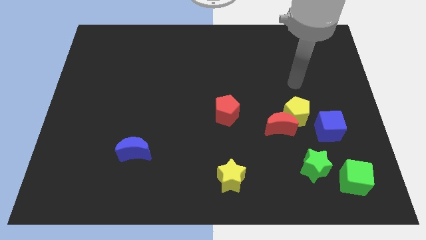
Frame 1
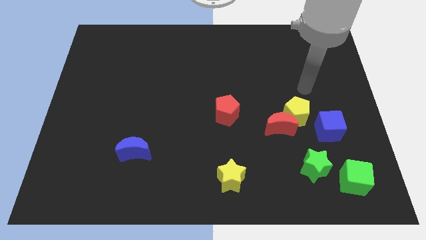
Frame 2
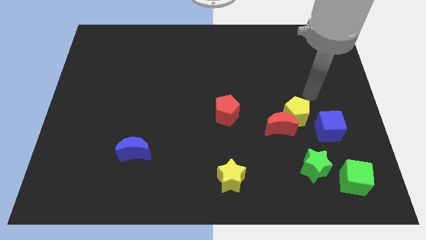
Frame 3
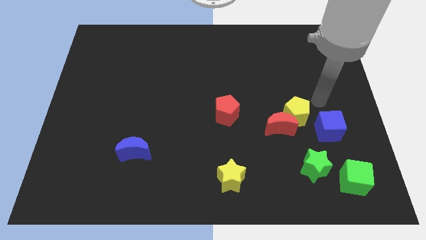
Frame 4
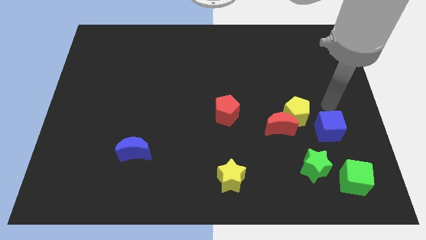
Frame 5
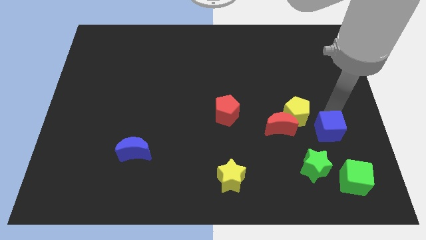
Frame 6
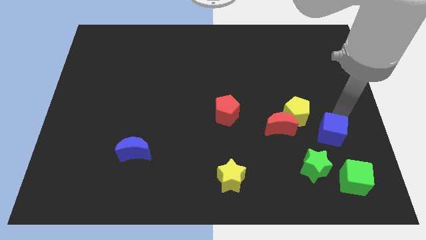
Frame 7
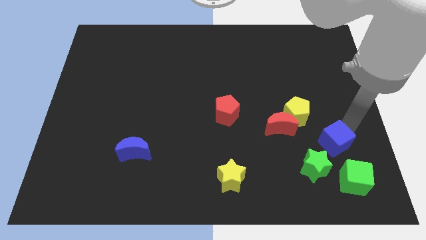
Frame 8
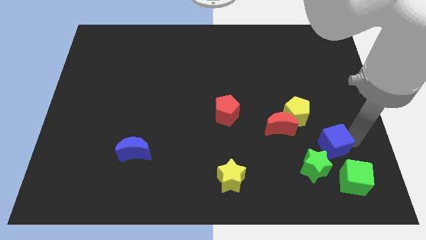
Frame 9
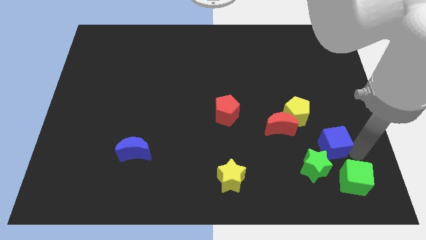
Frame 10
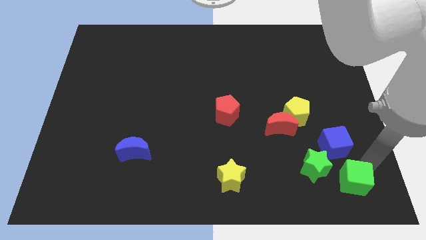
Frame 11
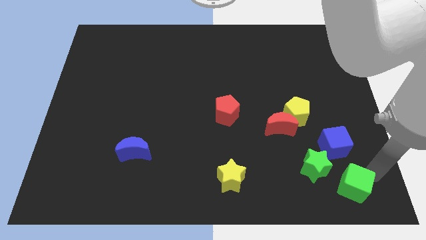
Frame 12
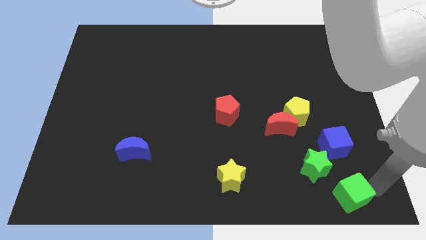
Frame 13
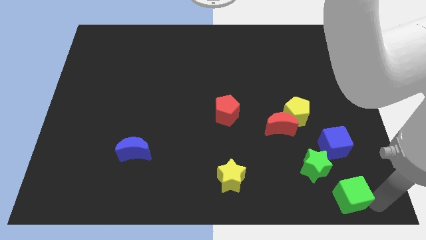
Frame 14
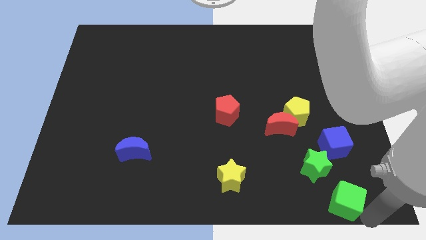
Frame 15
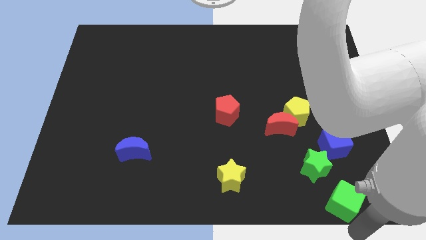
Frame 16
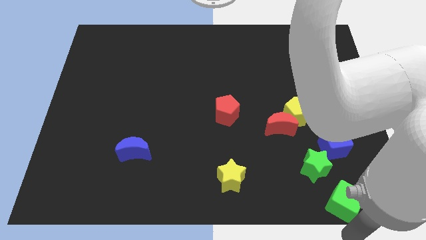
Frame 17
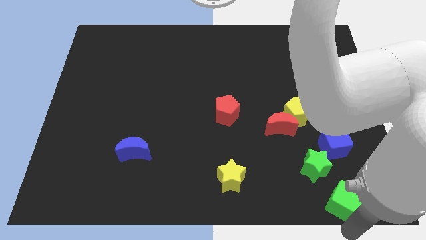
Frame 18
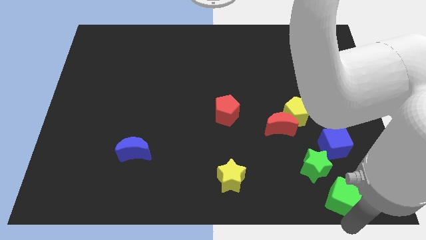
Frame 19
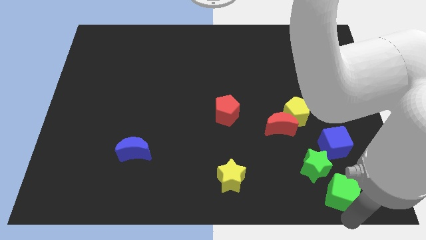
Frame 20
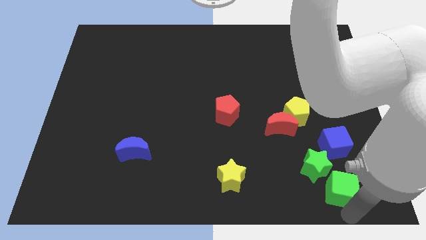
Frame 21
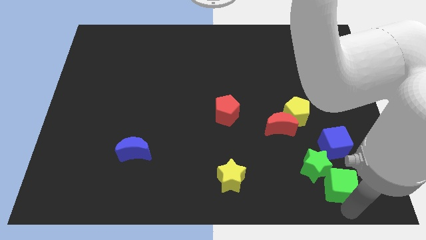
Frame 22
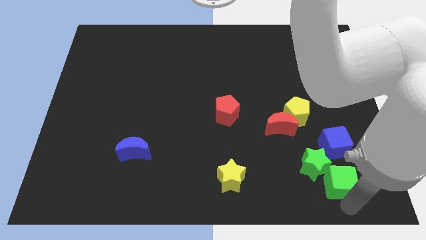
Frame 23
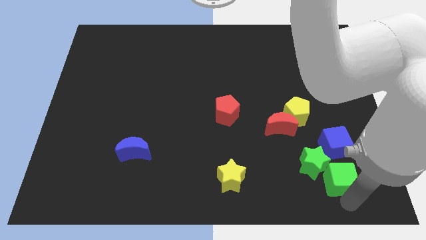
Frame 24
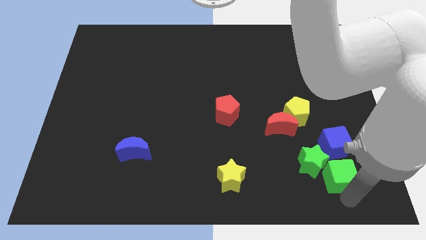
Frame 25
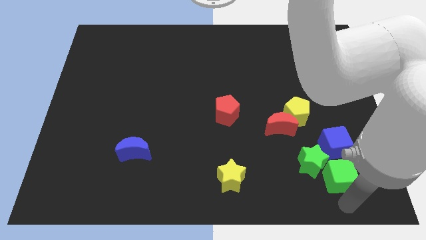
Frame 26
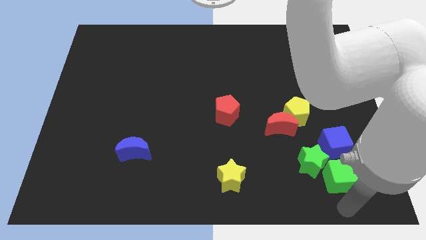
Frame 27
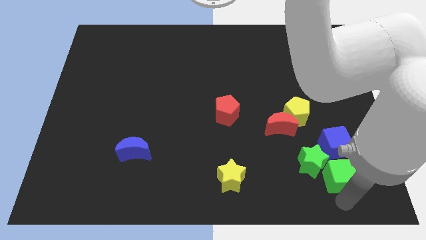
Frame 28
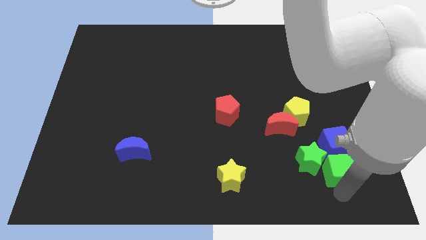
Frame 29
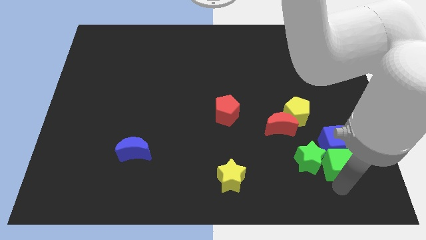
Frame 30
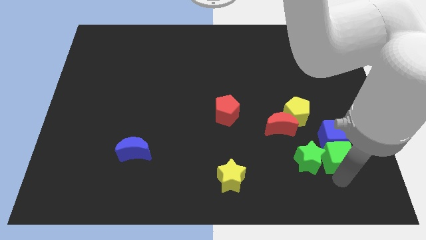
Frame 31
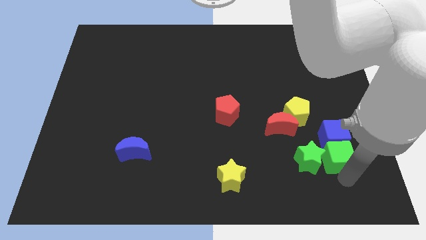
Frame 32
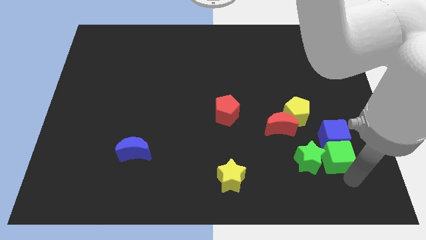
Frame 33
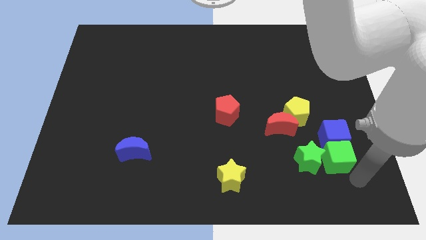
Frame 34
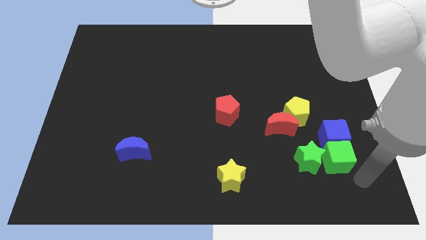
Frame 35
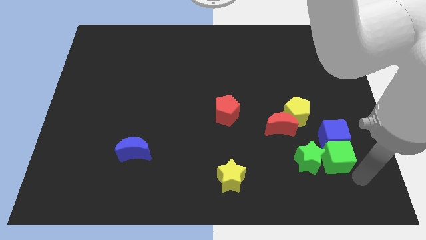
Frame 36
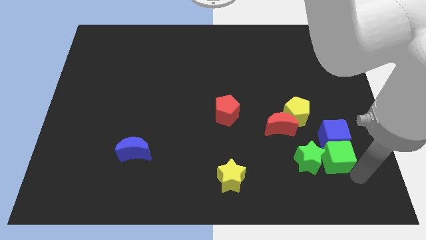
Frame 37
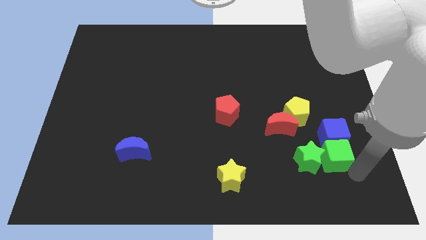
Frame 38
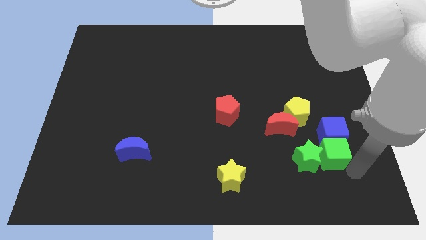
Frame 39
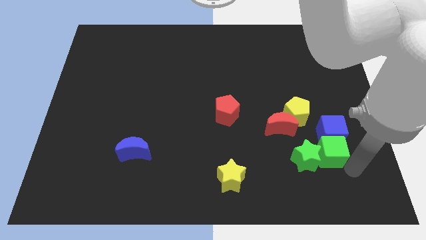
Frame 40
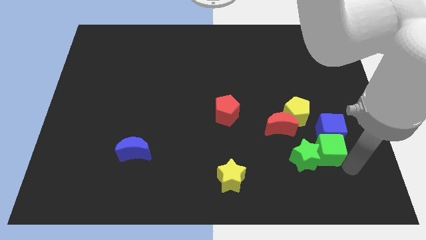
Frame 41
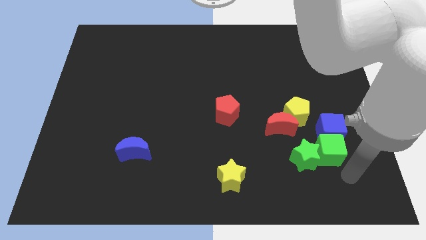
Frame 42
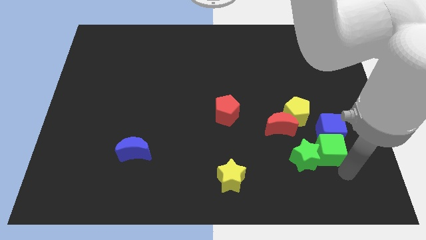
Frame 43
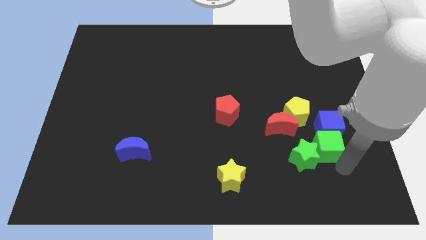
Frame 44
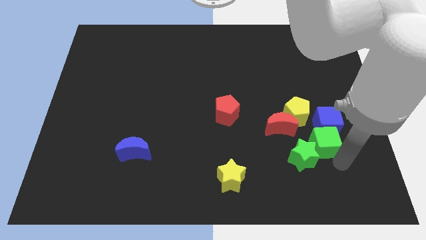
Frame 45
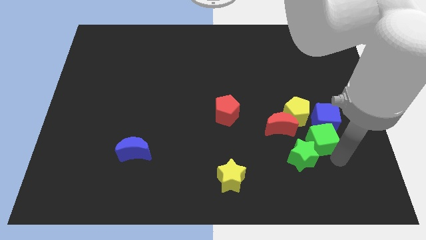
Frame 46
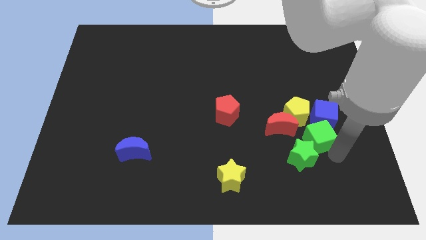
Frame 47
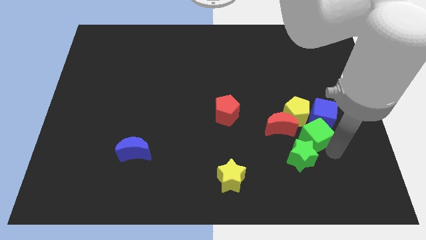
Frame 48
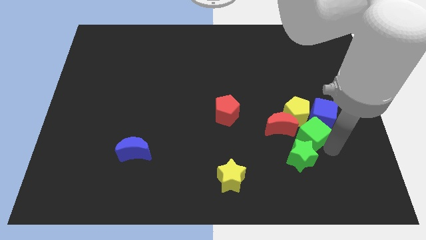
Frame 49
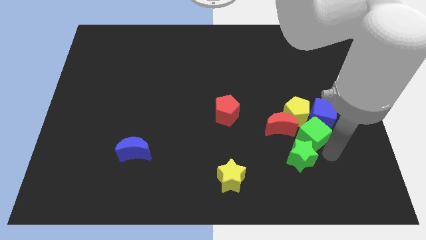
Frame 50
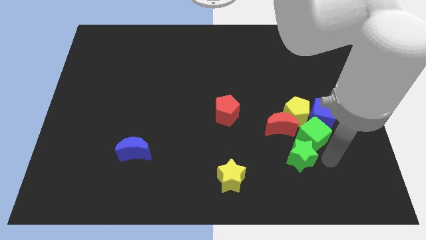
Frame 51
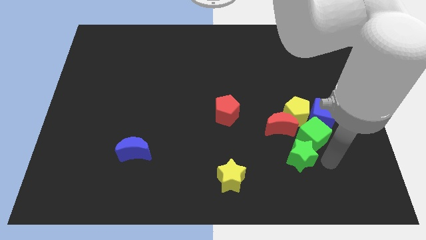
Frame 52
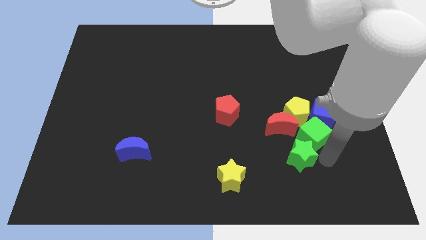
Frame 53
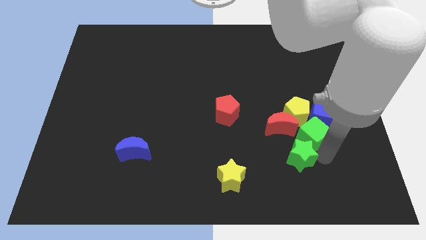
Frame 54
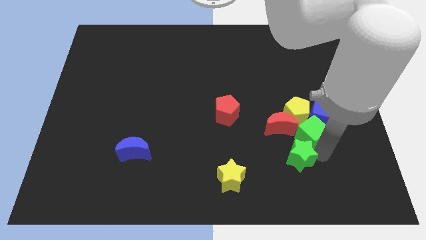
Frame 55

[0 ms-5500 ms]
push the green cube close to the yellow pentagon

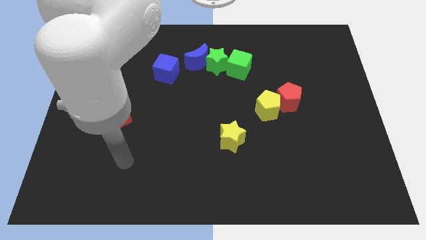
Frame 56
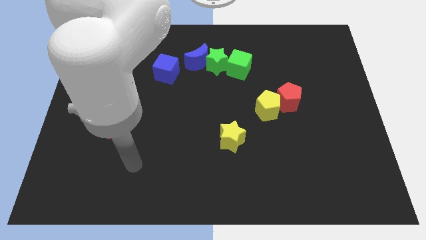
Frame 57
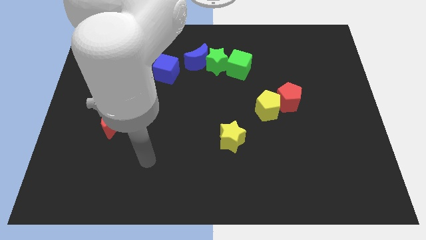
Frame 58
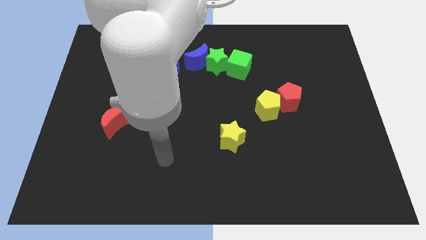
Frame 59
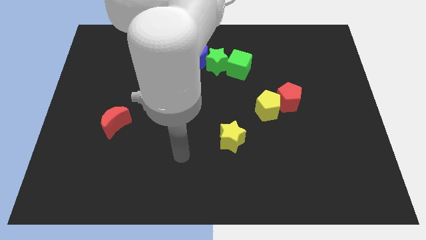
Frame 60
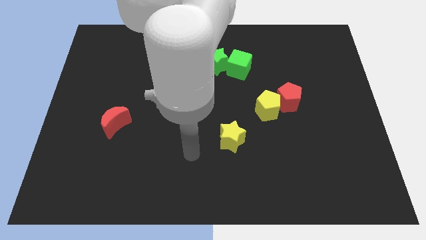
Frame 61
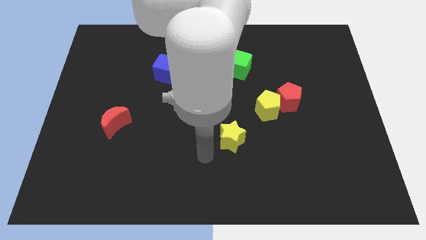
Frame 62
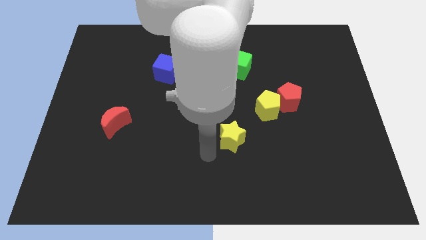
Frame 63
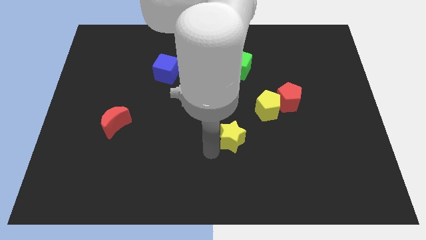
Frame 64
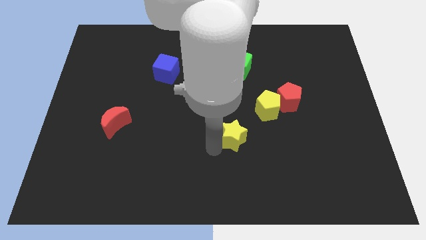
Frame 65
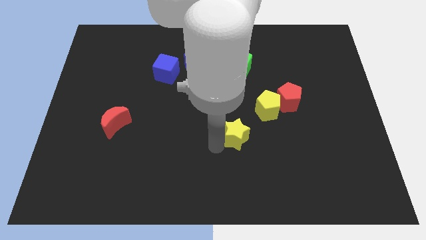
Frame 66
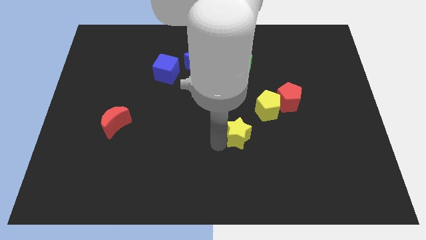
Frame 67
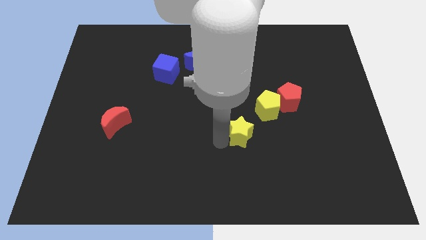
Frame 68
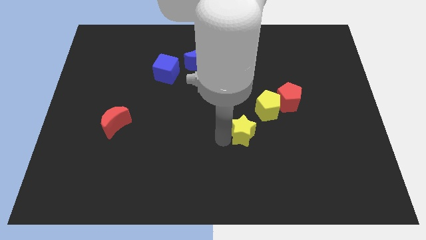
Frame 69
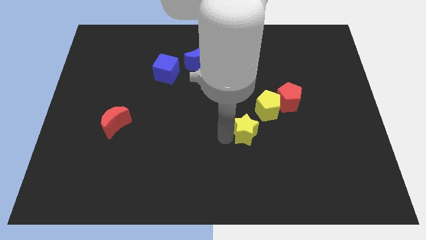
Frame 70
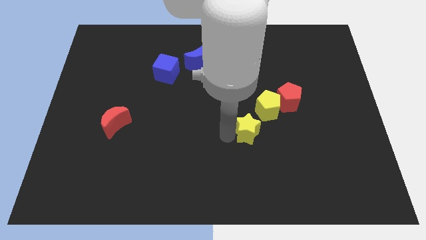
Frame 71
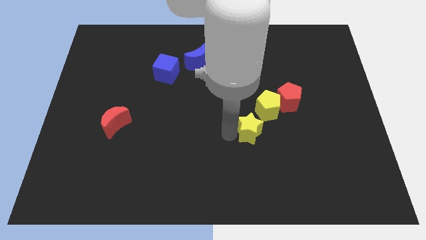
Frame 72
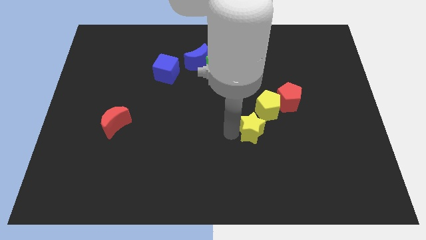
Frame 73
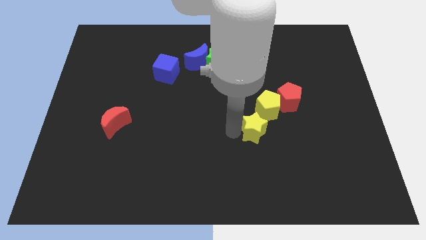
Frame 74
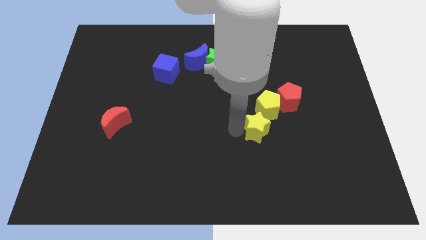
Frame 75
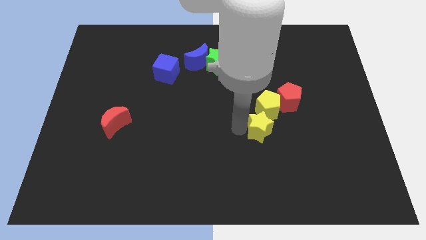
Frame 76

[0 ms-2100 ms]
move the yellow star towards the yellow pentagon
